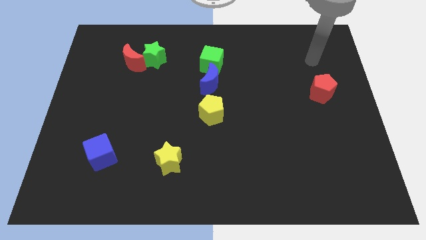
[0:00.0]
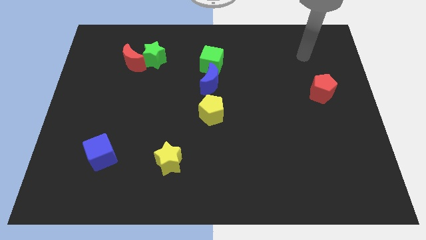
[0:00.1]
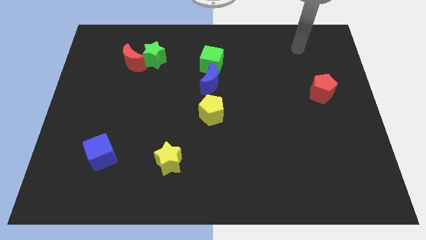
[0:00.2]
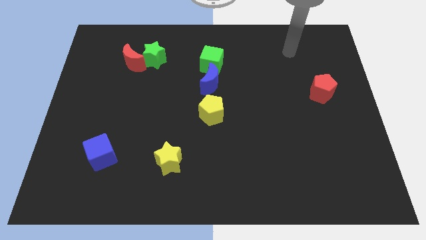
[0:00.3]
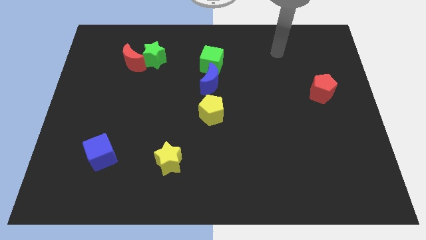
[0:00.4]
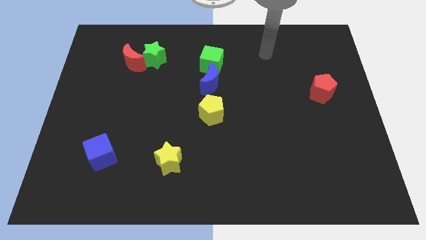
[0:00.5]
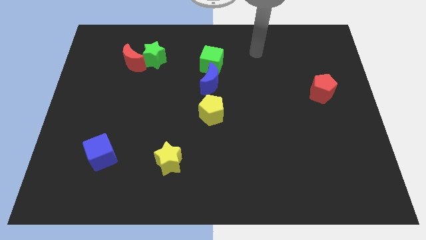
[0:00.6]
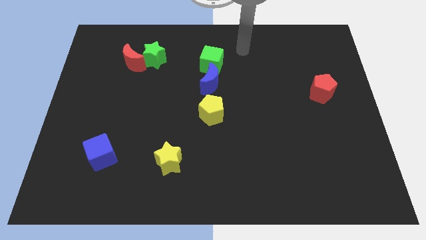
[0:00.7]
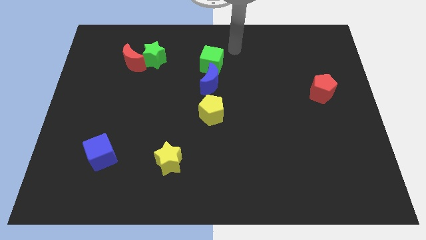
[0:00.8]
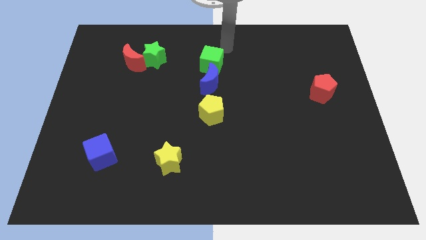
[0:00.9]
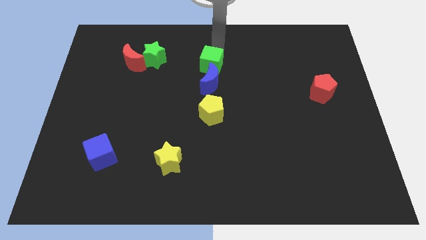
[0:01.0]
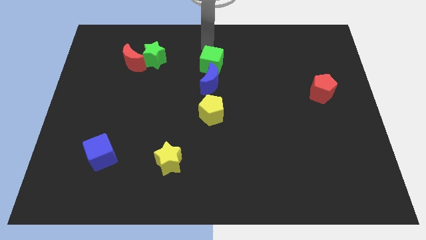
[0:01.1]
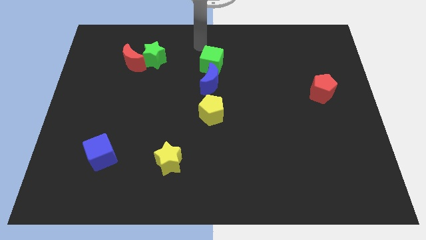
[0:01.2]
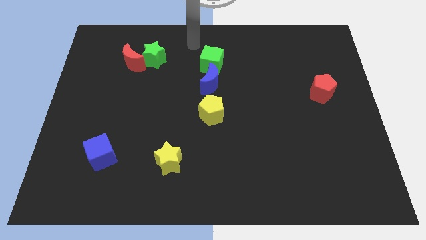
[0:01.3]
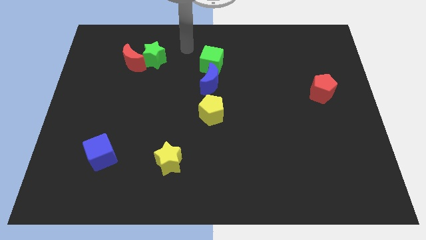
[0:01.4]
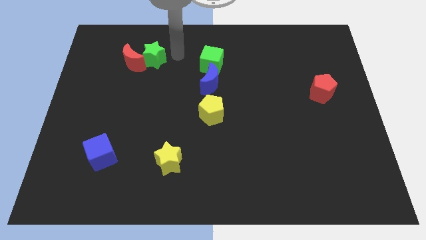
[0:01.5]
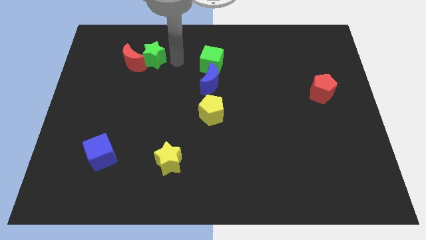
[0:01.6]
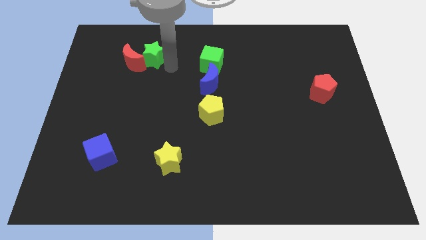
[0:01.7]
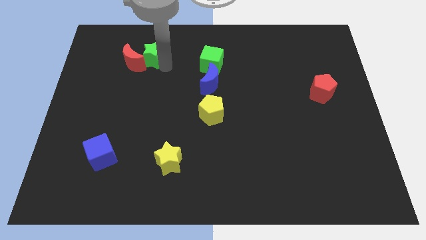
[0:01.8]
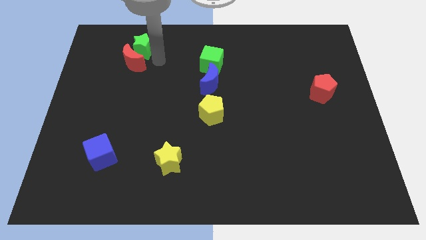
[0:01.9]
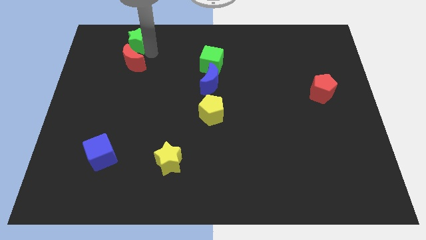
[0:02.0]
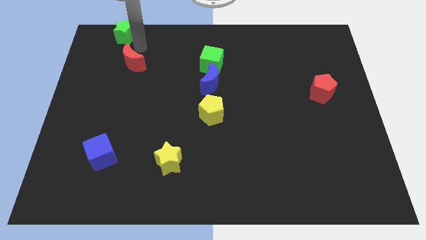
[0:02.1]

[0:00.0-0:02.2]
move the red moon away from the green star

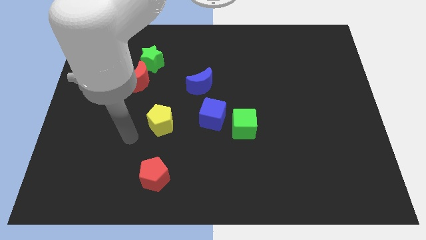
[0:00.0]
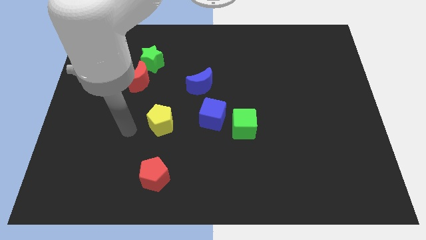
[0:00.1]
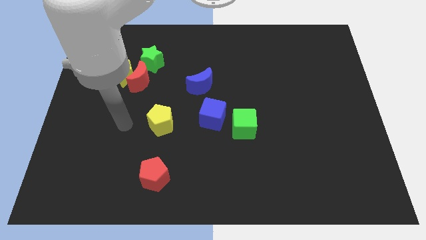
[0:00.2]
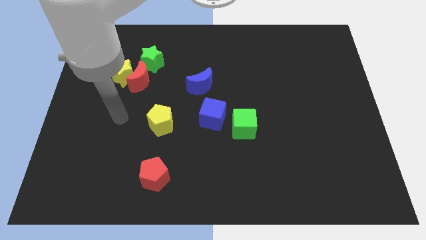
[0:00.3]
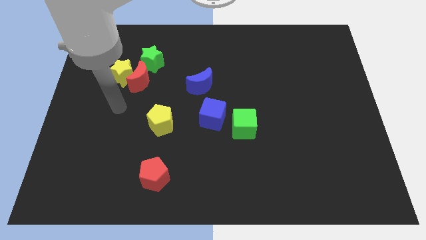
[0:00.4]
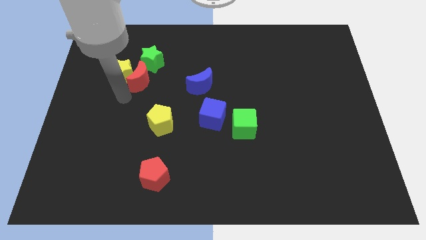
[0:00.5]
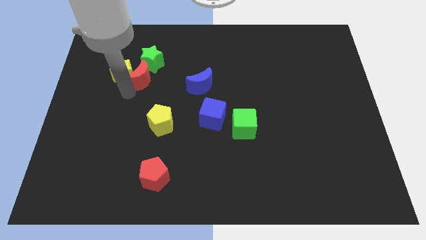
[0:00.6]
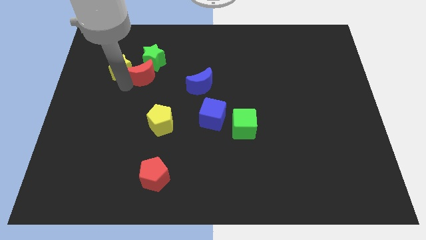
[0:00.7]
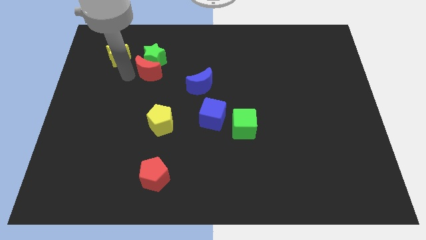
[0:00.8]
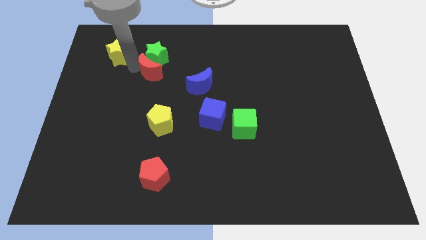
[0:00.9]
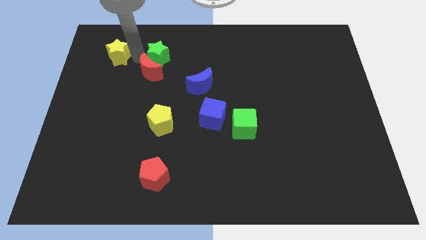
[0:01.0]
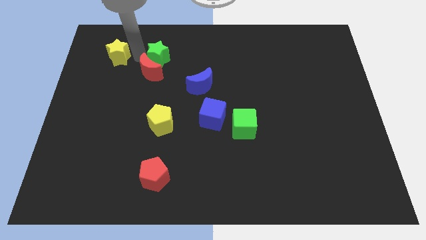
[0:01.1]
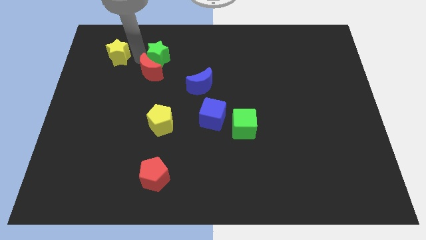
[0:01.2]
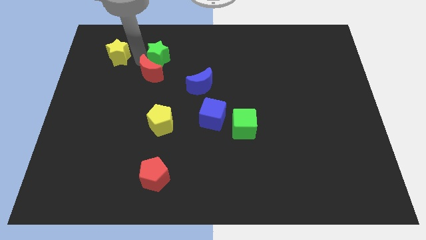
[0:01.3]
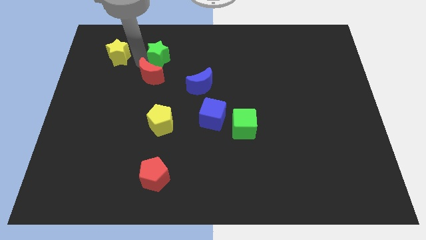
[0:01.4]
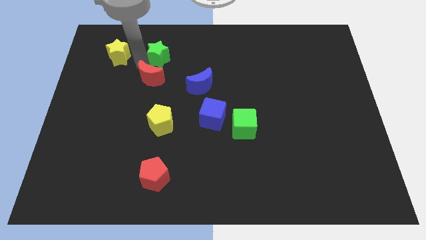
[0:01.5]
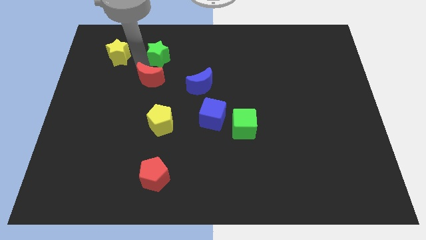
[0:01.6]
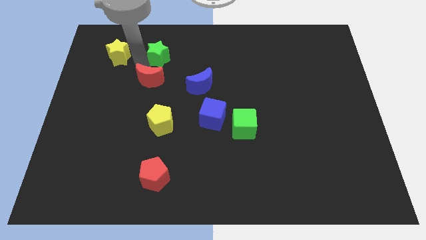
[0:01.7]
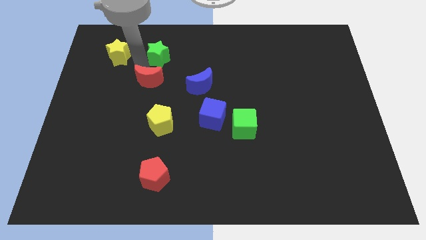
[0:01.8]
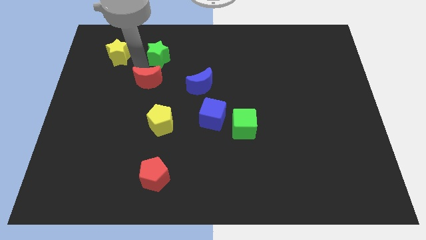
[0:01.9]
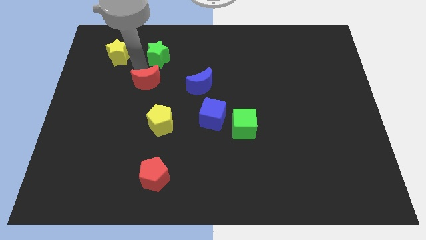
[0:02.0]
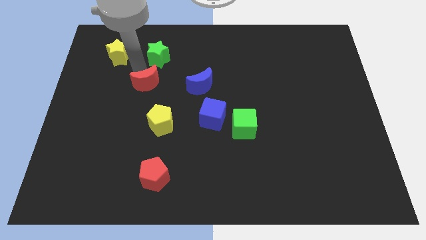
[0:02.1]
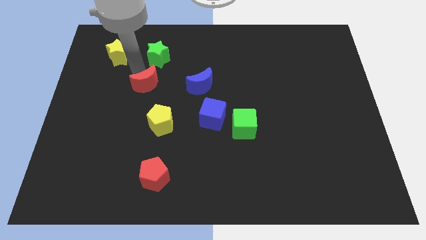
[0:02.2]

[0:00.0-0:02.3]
separate the red moon from the yellow star and green star

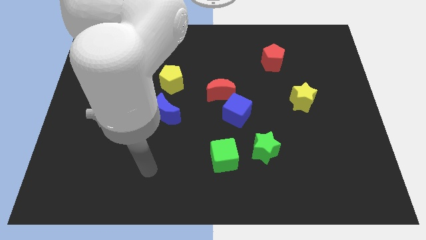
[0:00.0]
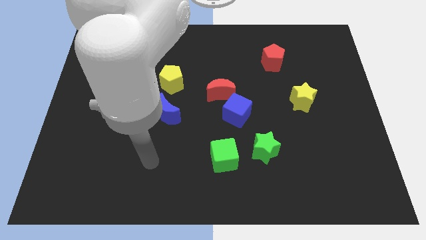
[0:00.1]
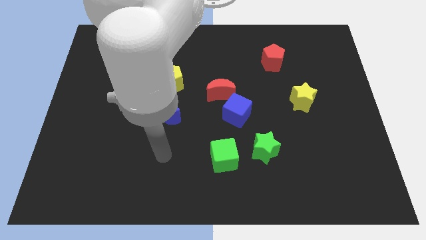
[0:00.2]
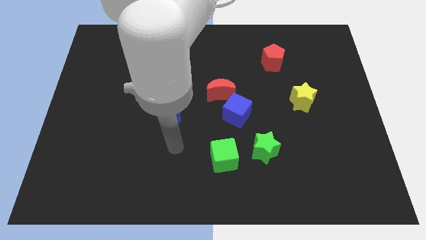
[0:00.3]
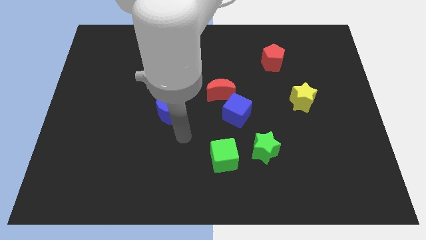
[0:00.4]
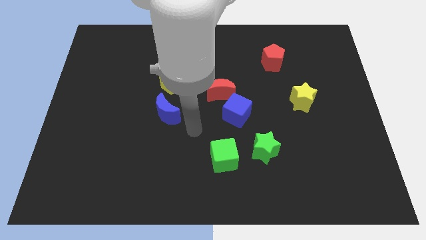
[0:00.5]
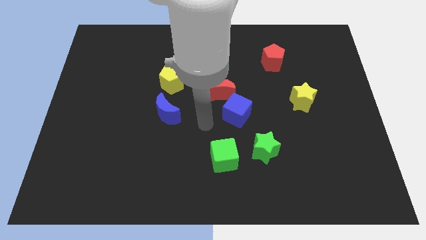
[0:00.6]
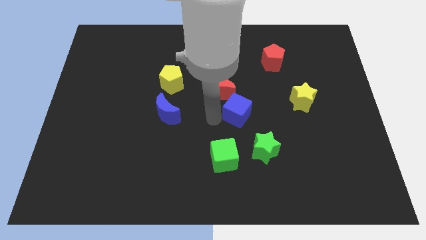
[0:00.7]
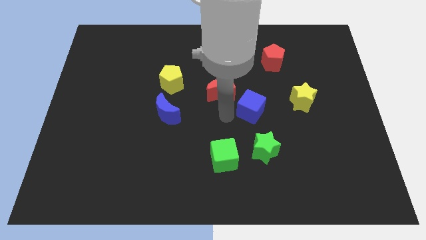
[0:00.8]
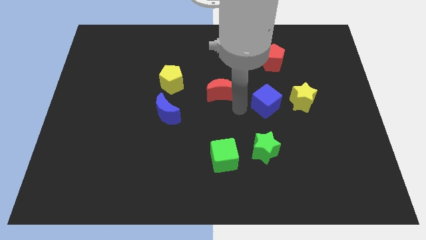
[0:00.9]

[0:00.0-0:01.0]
separate the red moon from the blue cube

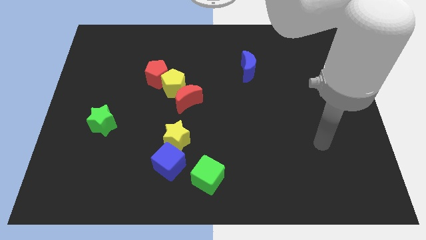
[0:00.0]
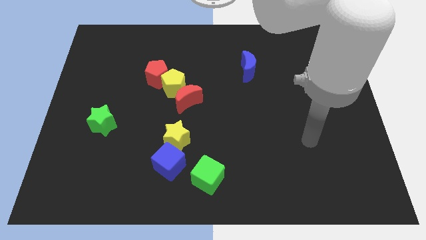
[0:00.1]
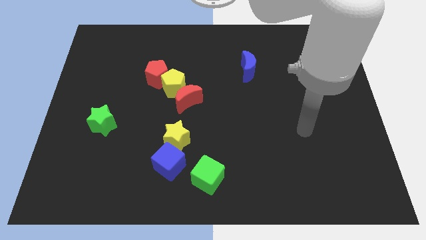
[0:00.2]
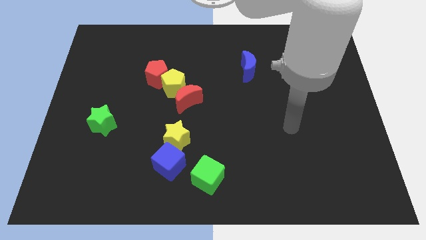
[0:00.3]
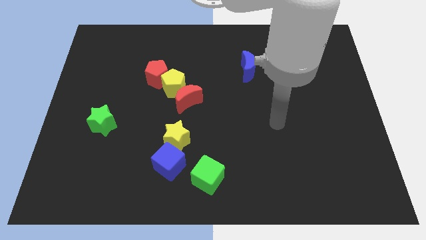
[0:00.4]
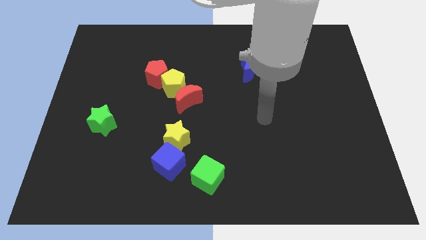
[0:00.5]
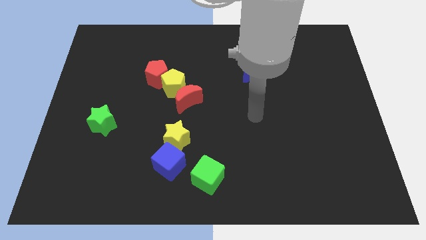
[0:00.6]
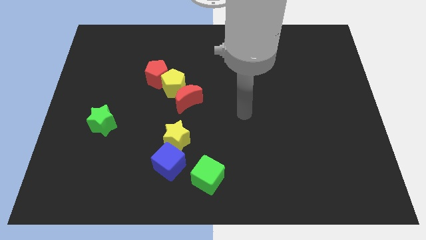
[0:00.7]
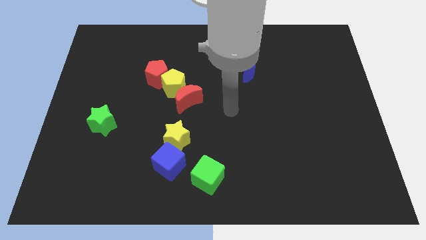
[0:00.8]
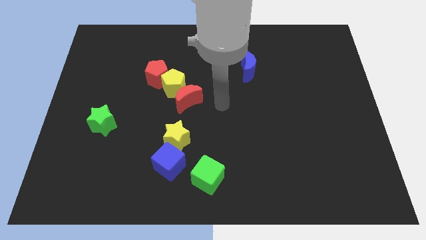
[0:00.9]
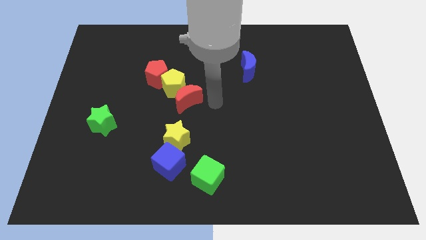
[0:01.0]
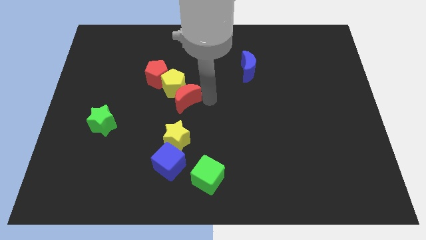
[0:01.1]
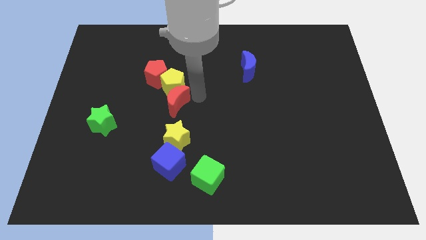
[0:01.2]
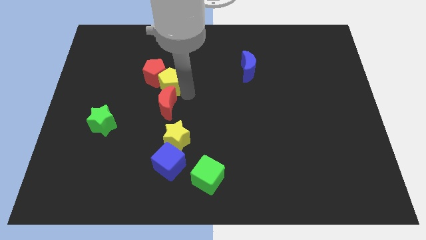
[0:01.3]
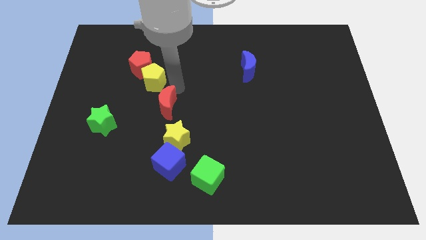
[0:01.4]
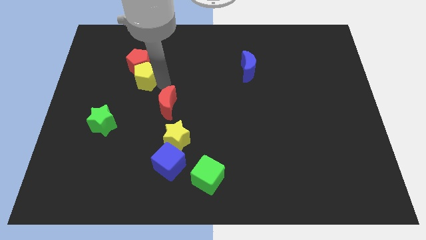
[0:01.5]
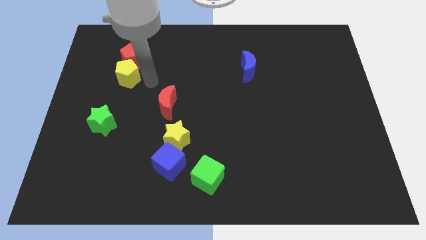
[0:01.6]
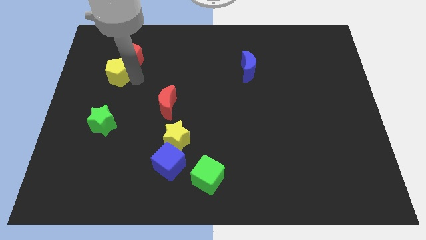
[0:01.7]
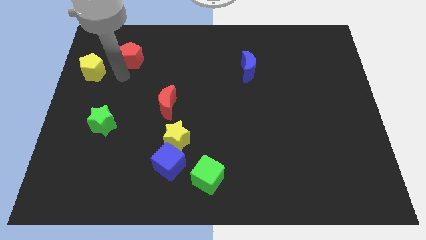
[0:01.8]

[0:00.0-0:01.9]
separate the red pentagon from the yellow pentagon

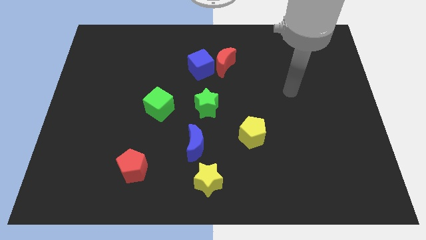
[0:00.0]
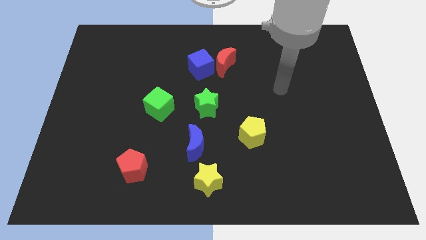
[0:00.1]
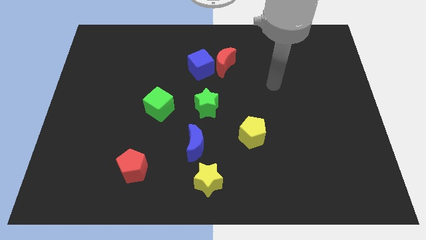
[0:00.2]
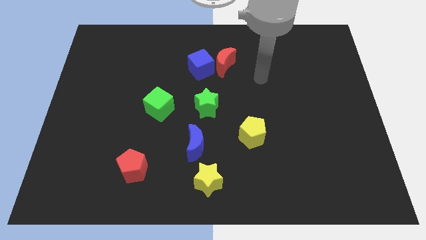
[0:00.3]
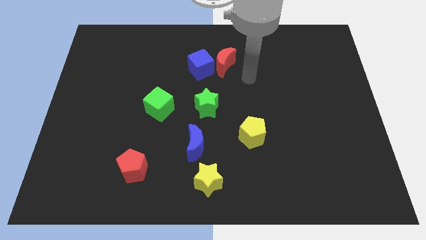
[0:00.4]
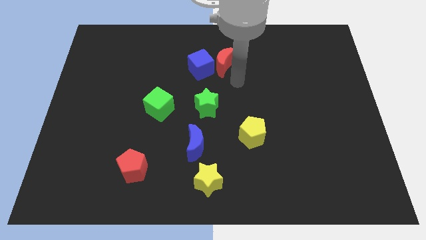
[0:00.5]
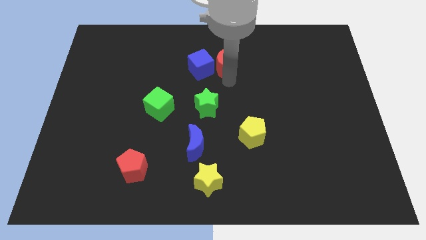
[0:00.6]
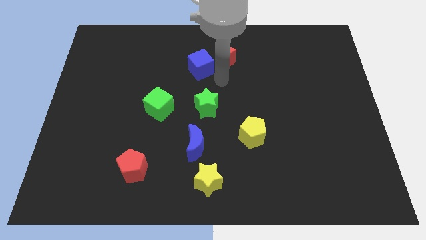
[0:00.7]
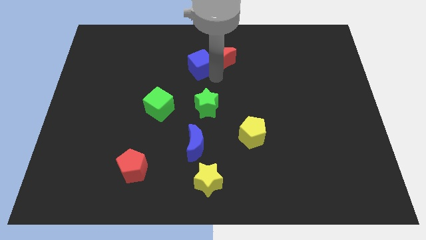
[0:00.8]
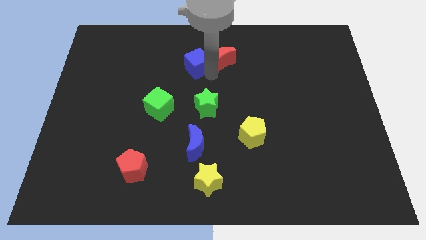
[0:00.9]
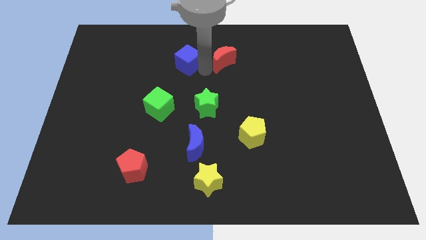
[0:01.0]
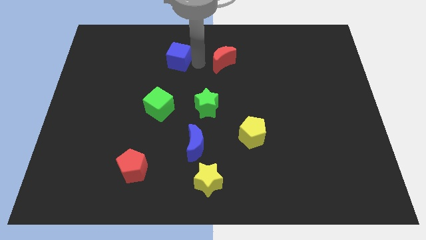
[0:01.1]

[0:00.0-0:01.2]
move the red moon away from the blue cube

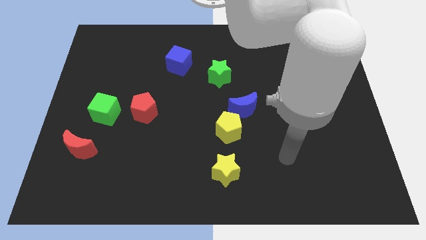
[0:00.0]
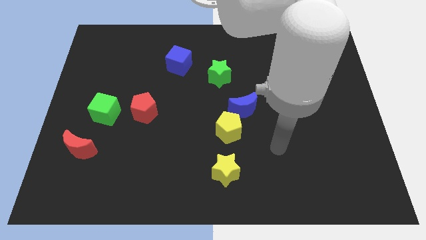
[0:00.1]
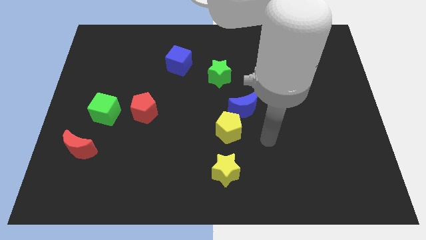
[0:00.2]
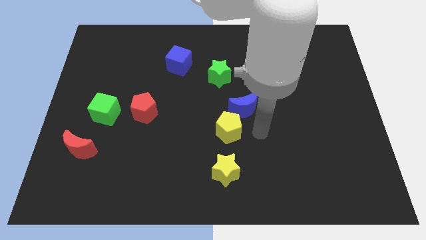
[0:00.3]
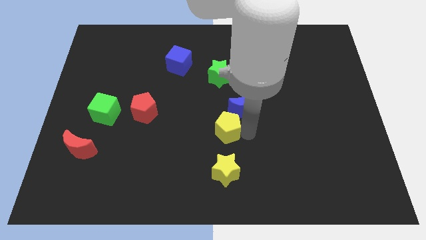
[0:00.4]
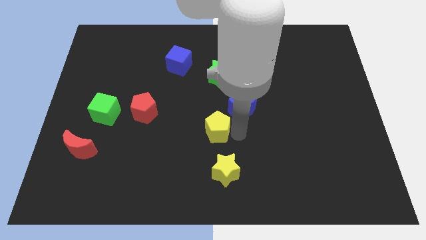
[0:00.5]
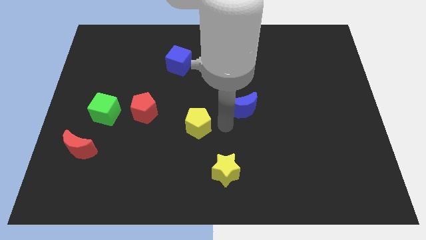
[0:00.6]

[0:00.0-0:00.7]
pull the blue moon apart from the yellow pentagon
